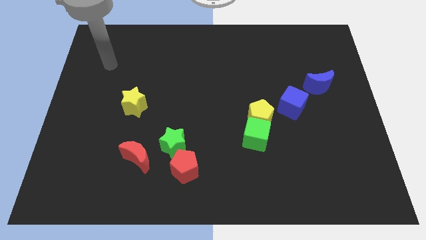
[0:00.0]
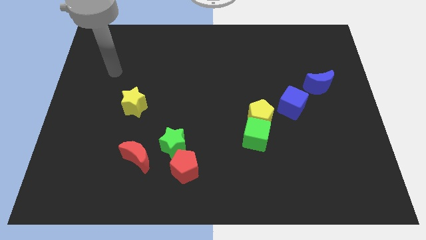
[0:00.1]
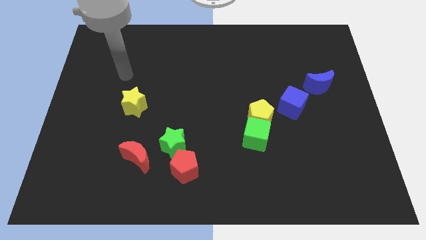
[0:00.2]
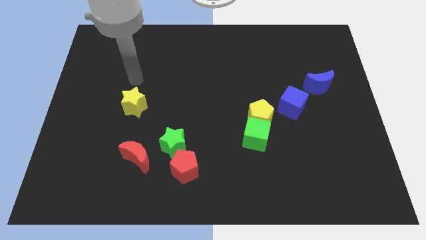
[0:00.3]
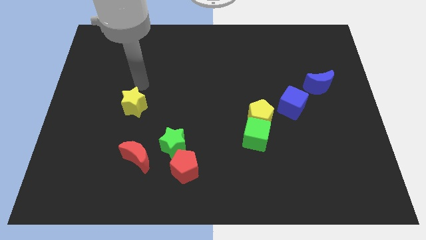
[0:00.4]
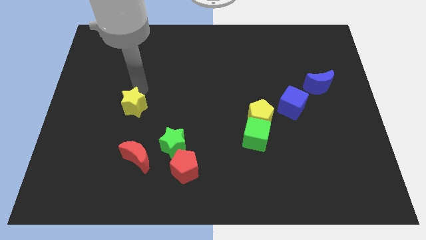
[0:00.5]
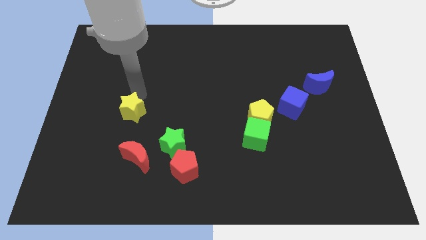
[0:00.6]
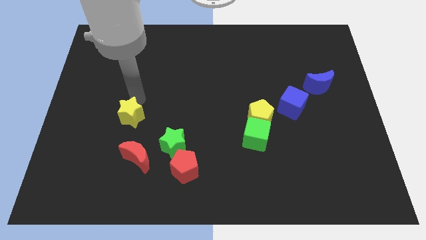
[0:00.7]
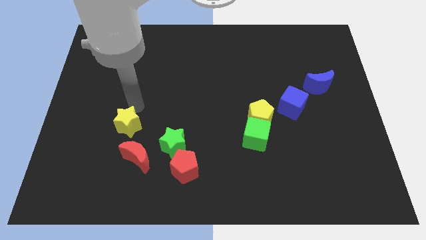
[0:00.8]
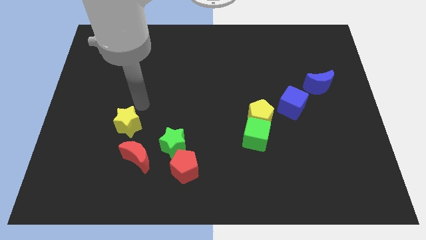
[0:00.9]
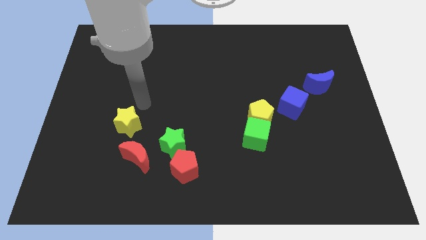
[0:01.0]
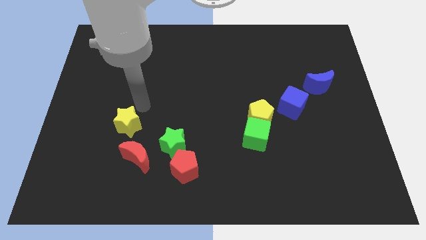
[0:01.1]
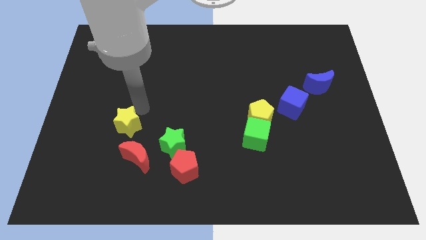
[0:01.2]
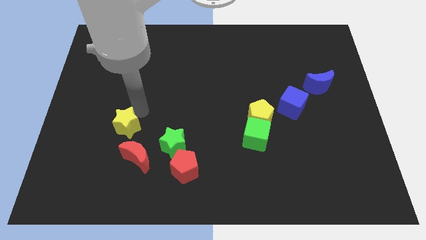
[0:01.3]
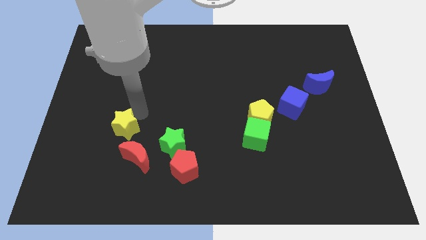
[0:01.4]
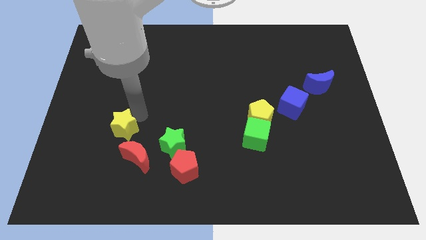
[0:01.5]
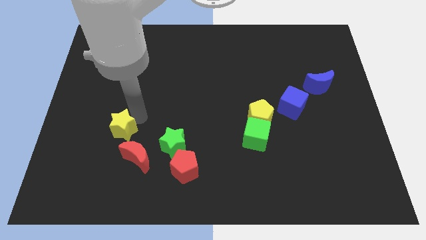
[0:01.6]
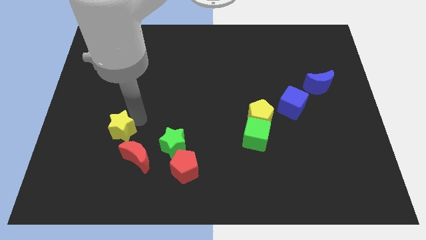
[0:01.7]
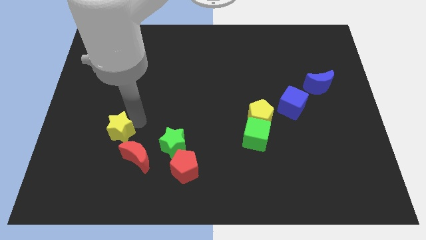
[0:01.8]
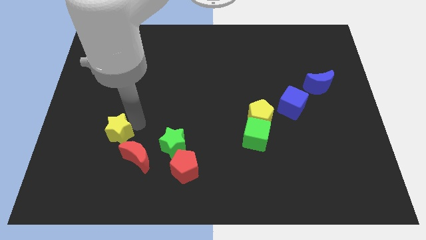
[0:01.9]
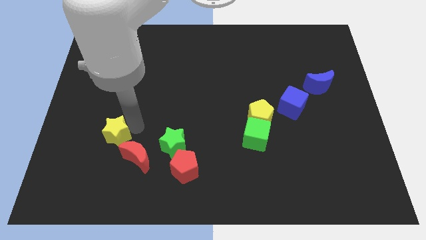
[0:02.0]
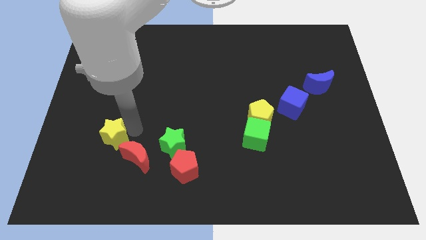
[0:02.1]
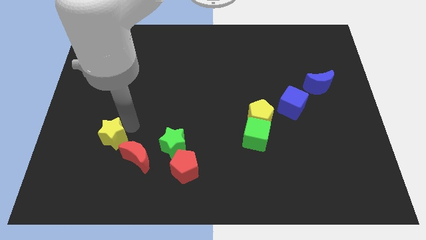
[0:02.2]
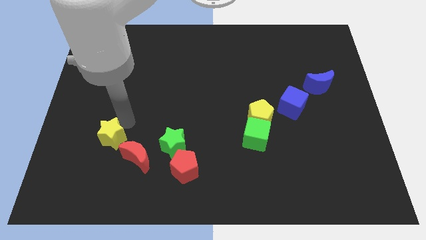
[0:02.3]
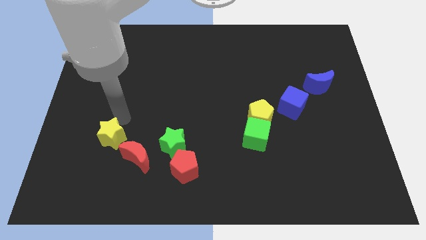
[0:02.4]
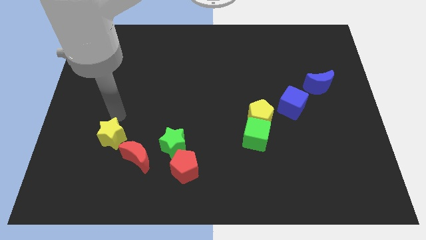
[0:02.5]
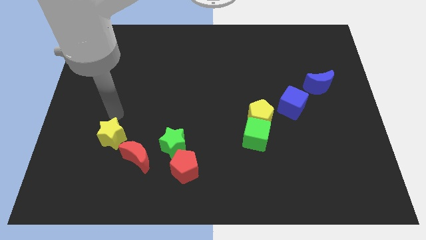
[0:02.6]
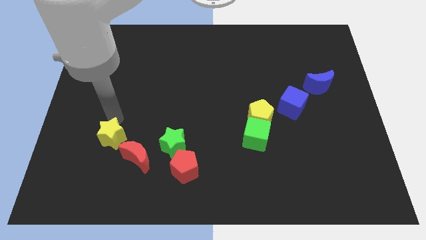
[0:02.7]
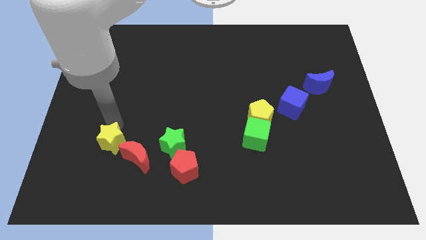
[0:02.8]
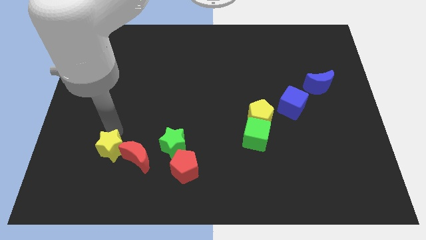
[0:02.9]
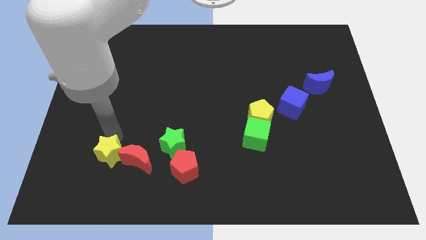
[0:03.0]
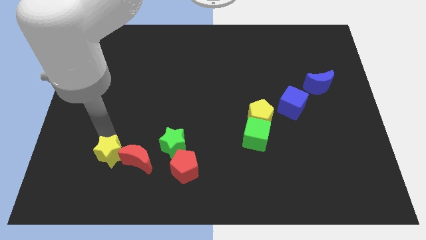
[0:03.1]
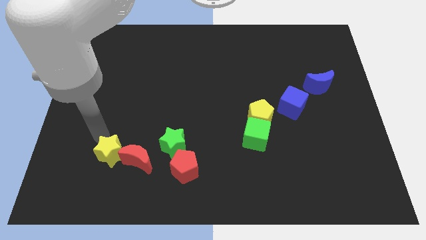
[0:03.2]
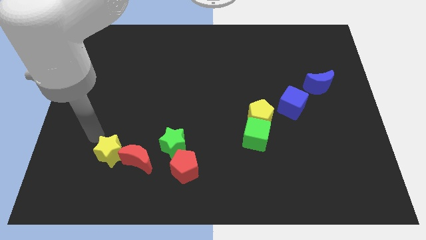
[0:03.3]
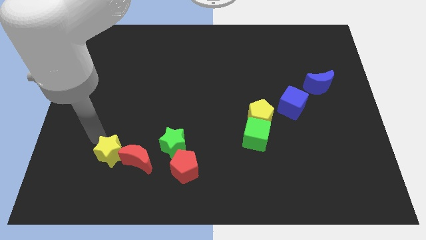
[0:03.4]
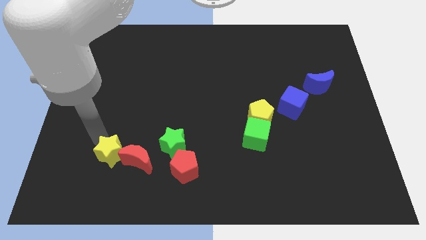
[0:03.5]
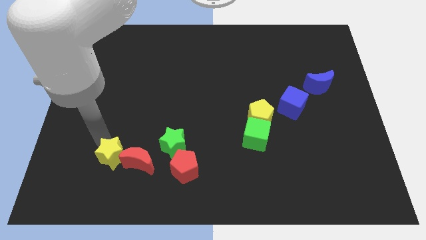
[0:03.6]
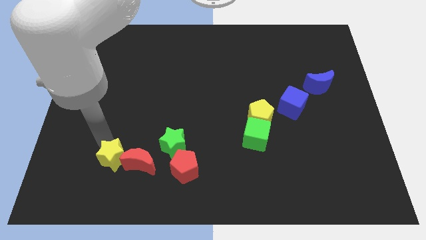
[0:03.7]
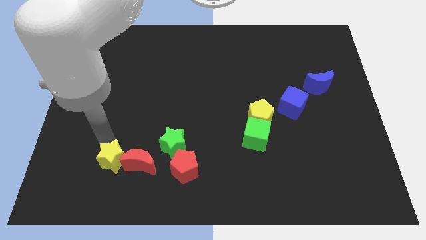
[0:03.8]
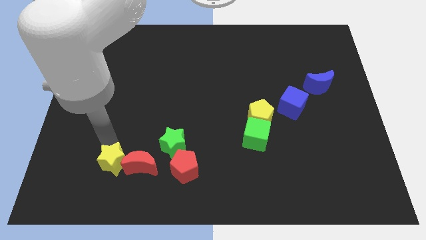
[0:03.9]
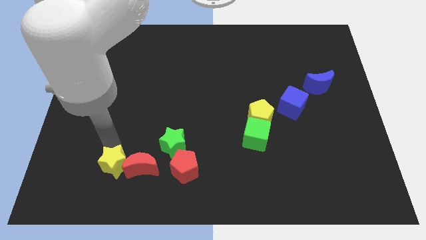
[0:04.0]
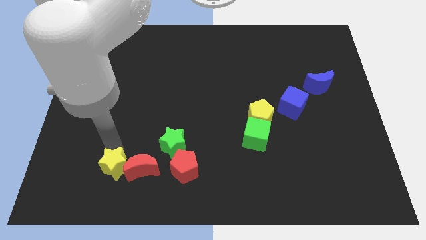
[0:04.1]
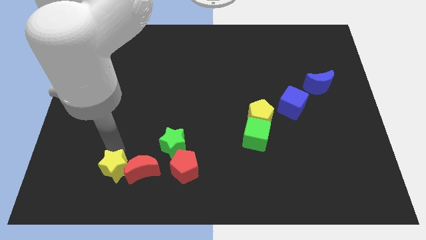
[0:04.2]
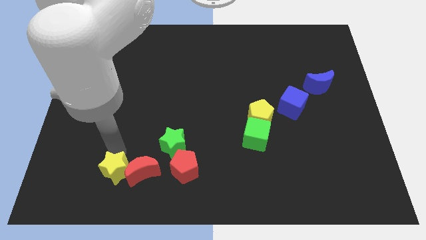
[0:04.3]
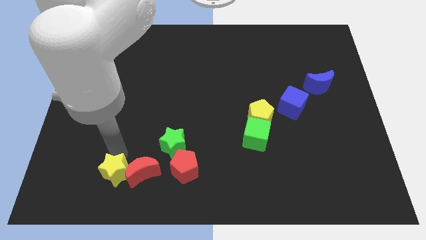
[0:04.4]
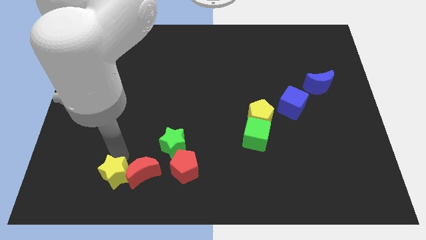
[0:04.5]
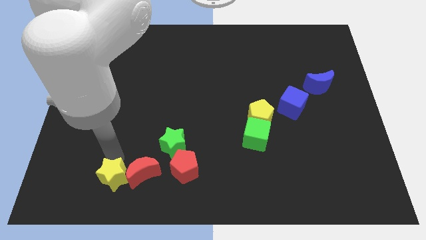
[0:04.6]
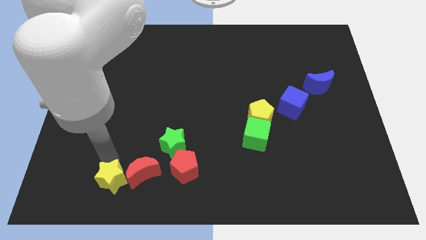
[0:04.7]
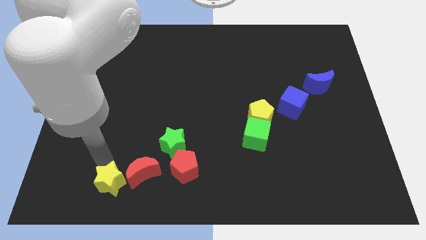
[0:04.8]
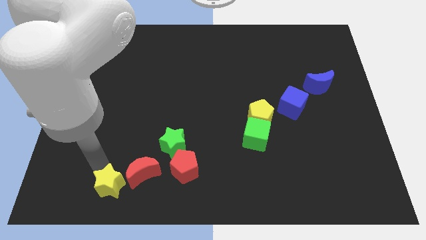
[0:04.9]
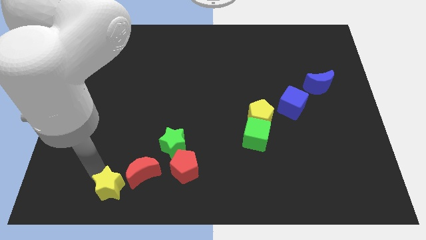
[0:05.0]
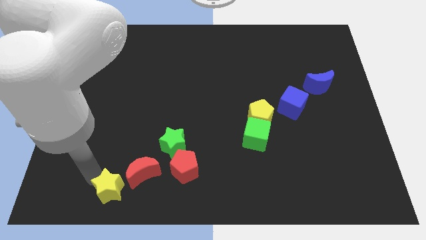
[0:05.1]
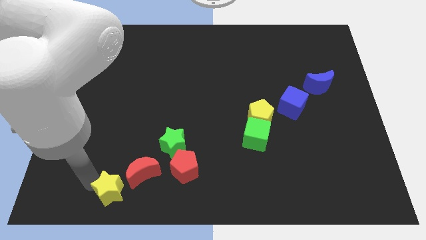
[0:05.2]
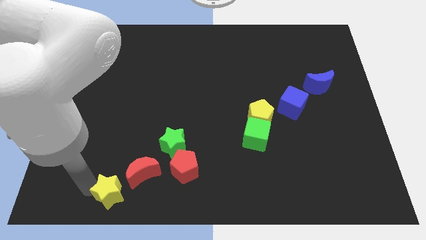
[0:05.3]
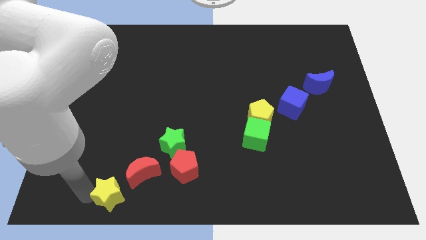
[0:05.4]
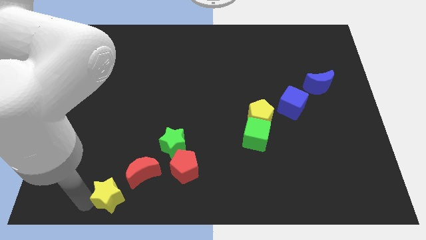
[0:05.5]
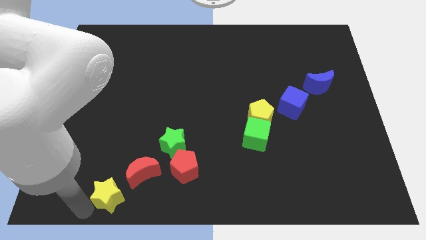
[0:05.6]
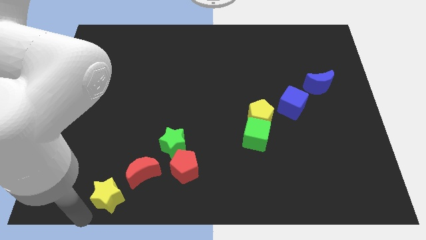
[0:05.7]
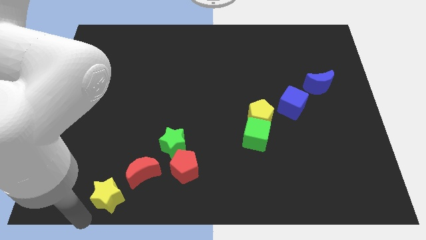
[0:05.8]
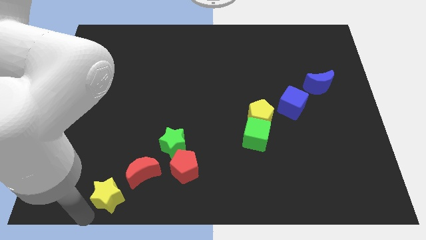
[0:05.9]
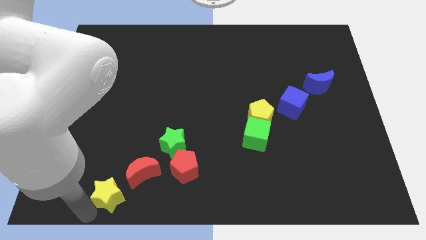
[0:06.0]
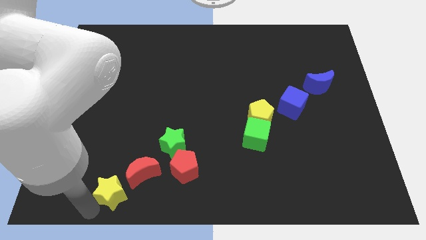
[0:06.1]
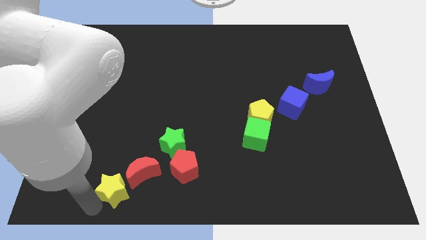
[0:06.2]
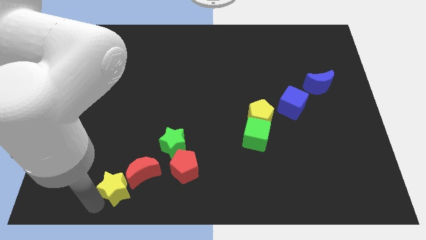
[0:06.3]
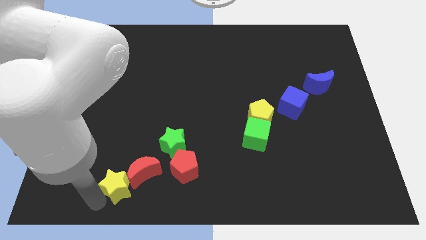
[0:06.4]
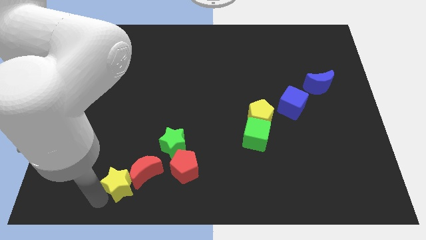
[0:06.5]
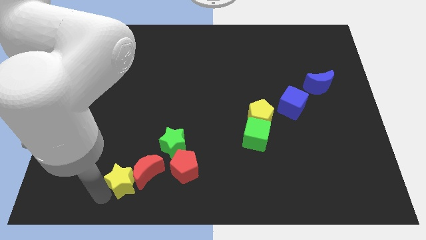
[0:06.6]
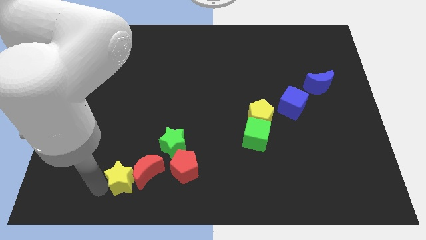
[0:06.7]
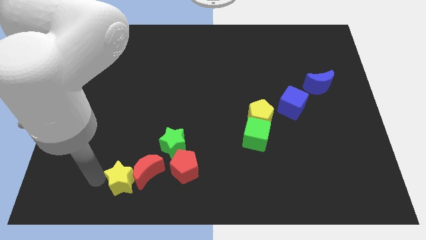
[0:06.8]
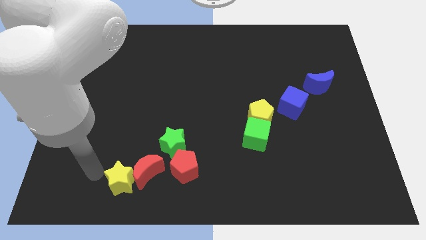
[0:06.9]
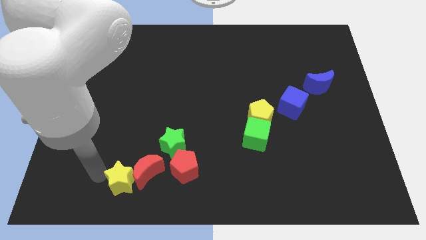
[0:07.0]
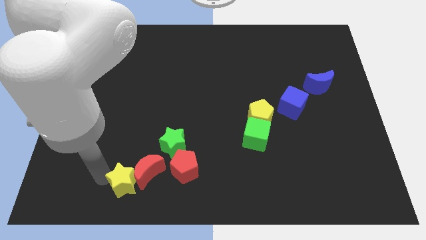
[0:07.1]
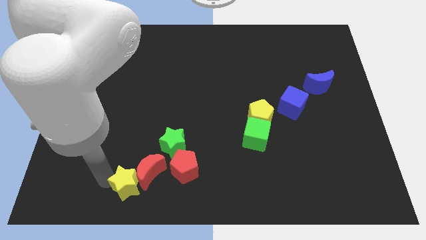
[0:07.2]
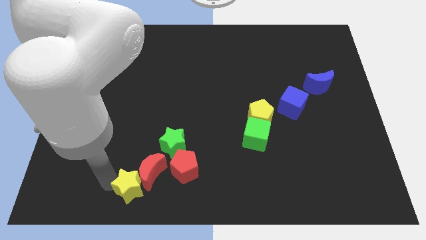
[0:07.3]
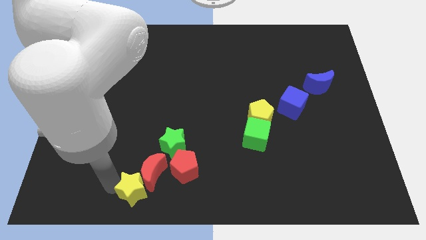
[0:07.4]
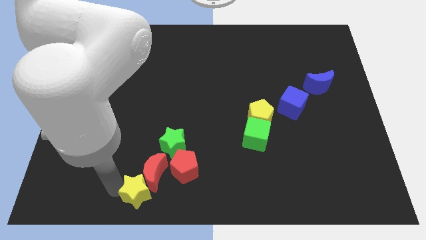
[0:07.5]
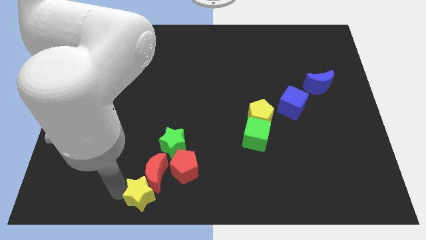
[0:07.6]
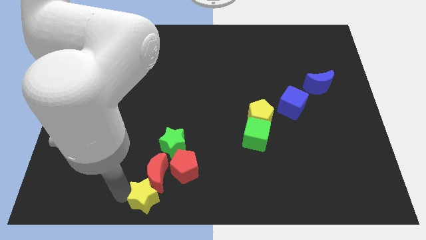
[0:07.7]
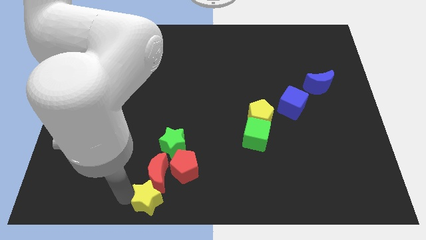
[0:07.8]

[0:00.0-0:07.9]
put the yellow star diagonally down and to the right of the red moon
